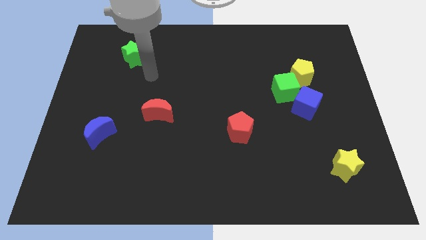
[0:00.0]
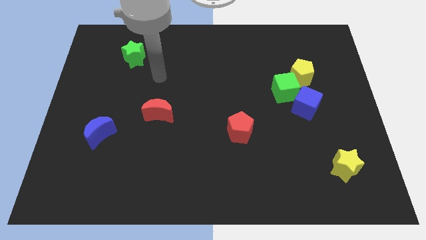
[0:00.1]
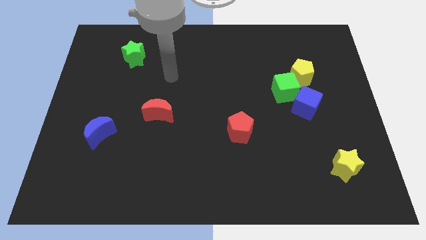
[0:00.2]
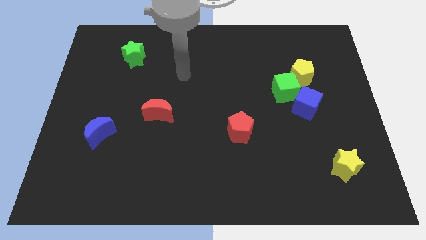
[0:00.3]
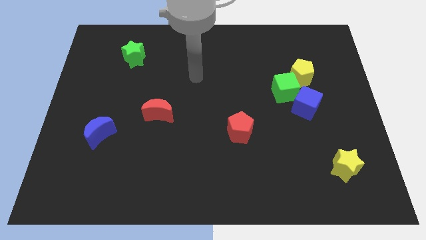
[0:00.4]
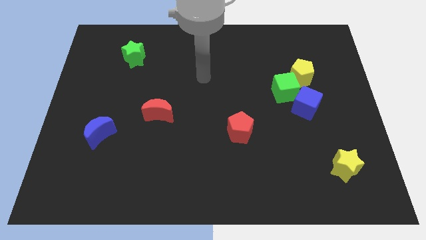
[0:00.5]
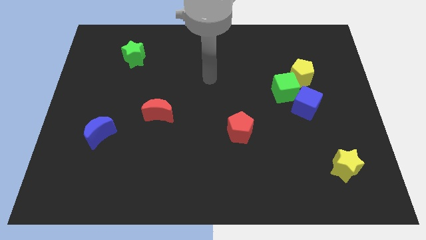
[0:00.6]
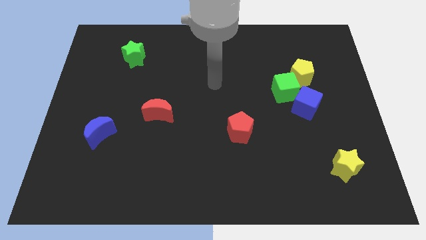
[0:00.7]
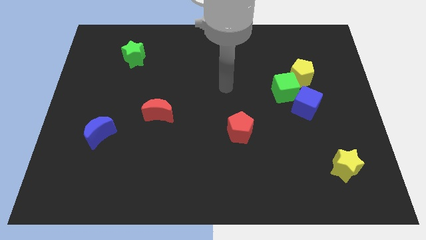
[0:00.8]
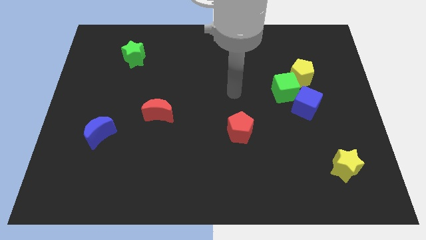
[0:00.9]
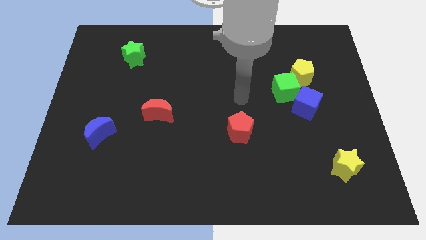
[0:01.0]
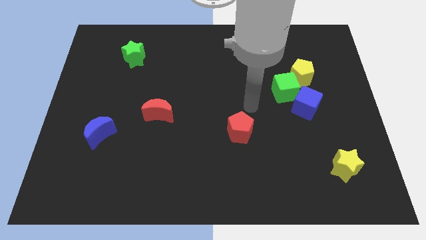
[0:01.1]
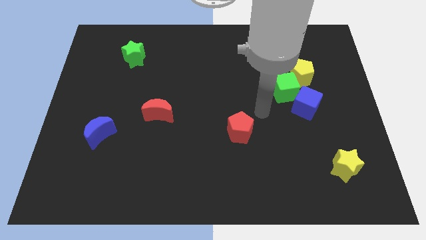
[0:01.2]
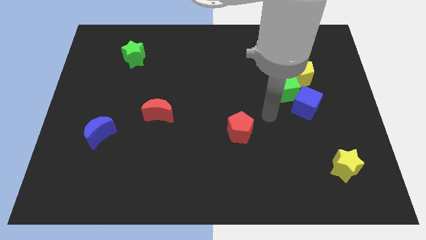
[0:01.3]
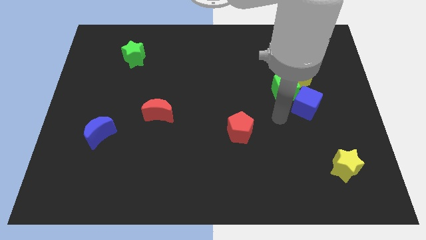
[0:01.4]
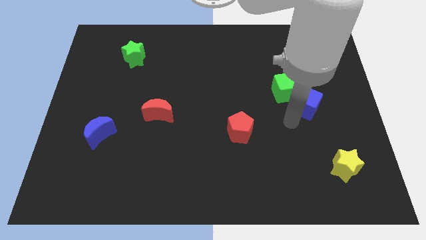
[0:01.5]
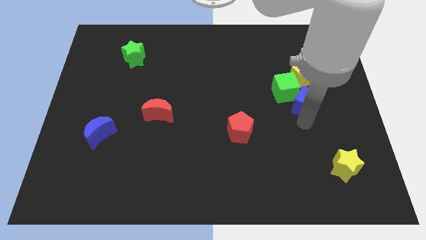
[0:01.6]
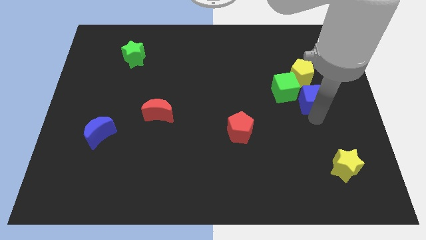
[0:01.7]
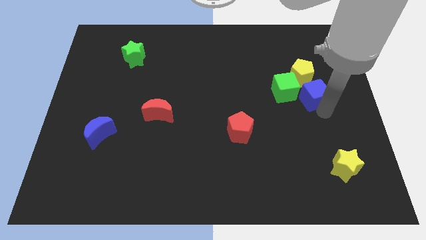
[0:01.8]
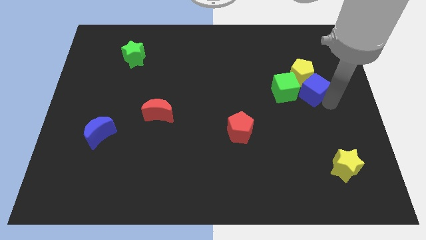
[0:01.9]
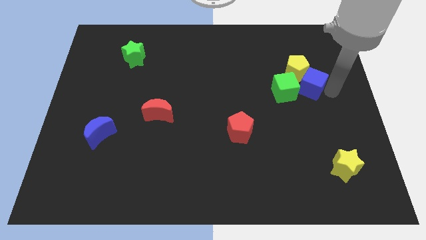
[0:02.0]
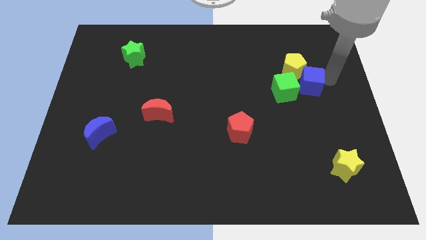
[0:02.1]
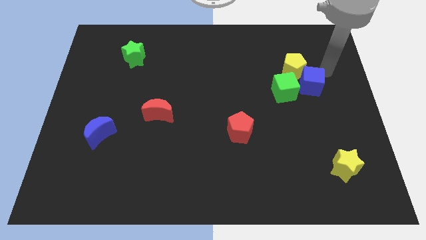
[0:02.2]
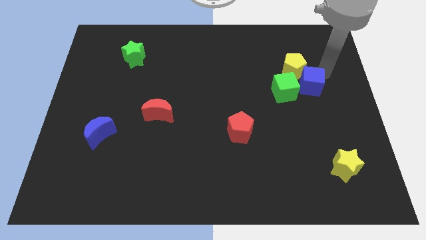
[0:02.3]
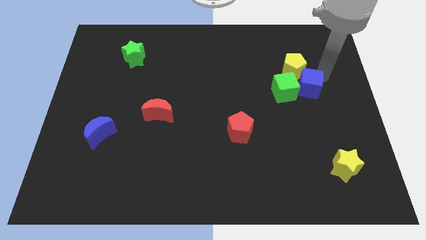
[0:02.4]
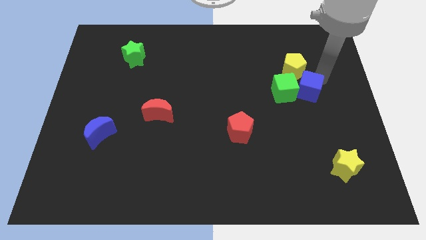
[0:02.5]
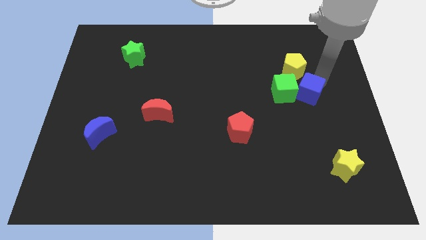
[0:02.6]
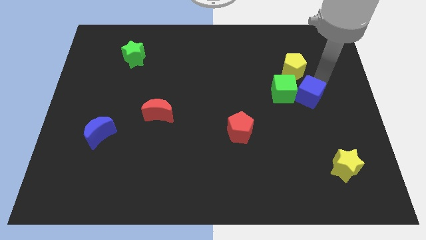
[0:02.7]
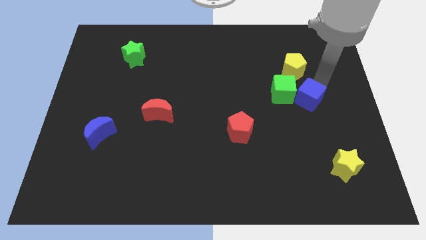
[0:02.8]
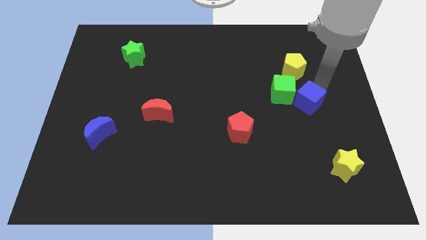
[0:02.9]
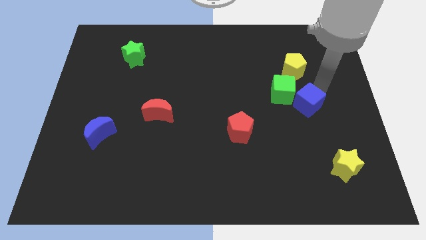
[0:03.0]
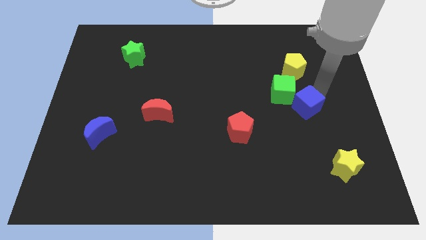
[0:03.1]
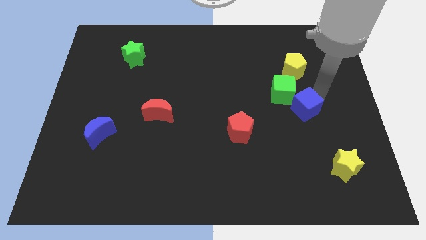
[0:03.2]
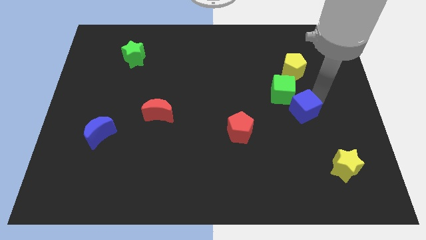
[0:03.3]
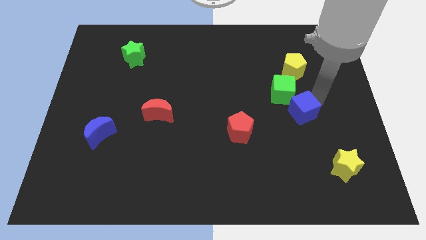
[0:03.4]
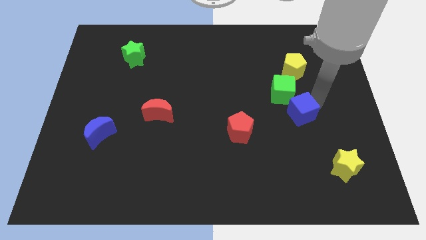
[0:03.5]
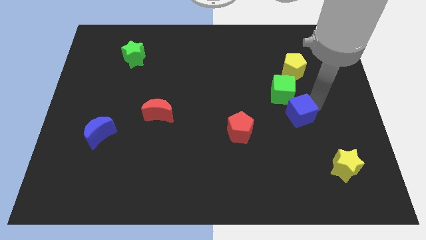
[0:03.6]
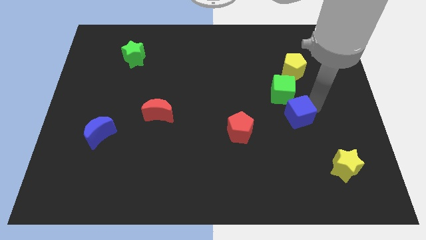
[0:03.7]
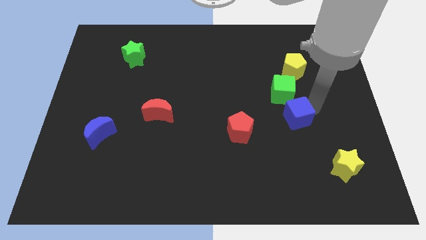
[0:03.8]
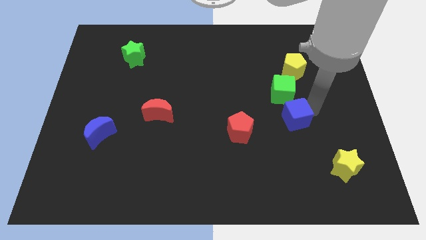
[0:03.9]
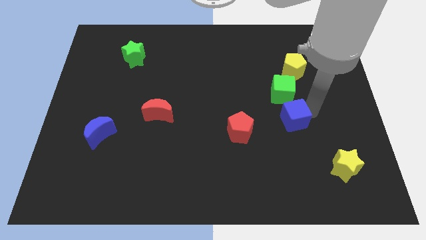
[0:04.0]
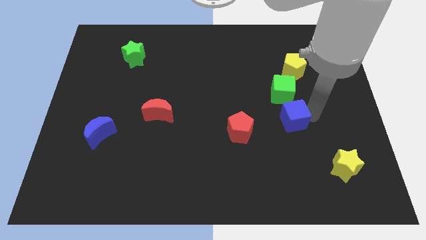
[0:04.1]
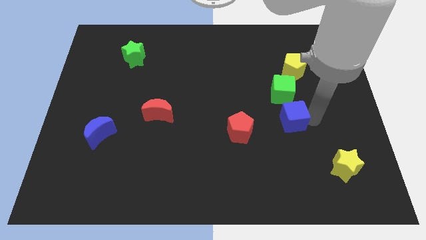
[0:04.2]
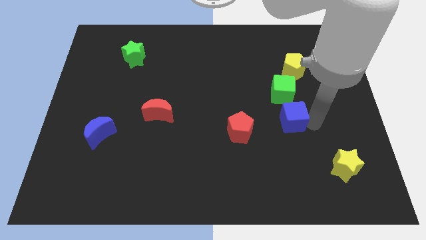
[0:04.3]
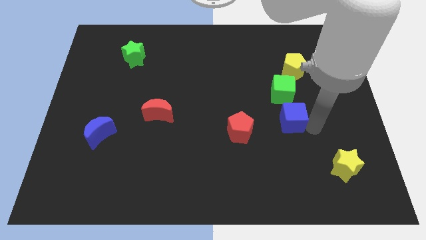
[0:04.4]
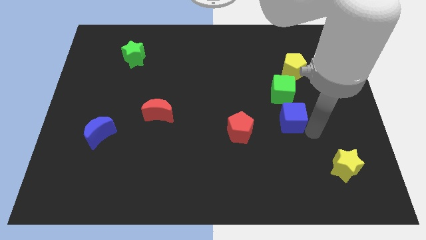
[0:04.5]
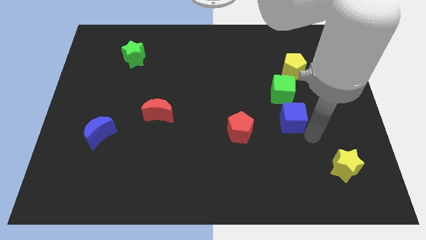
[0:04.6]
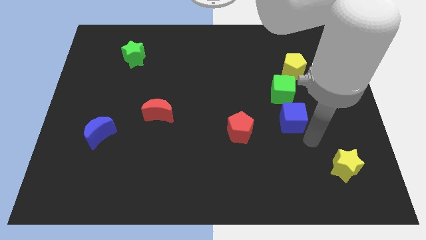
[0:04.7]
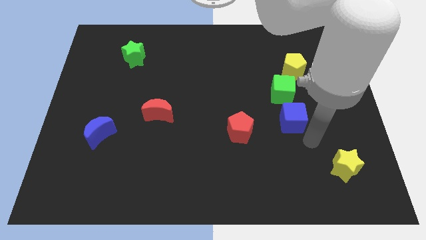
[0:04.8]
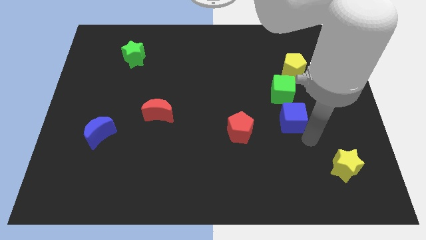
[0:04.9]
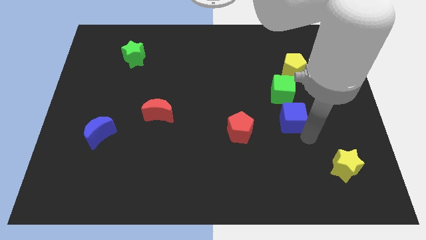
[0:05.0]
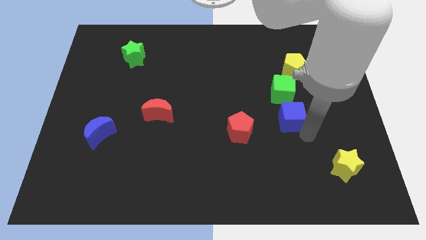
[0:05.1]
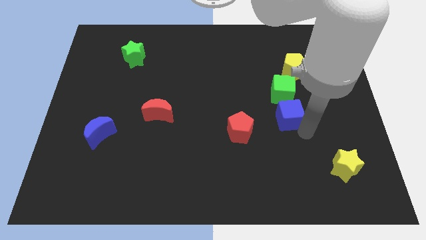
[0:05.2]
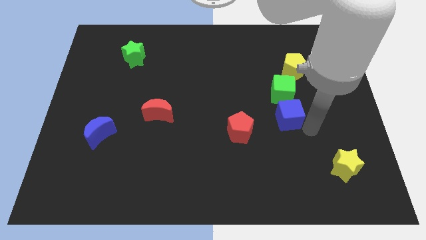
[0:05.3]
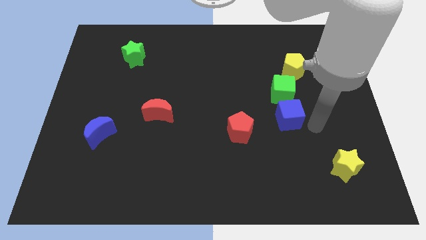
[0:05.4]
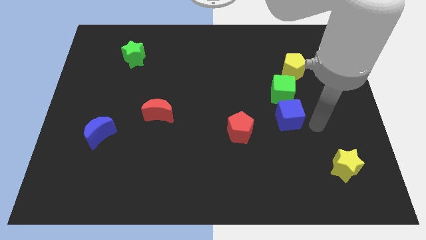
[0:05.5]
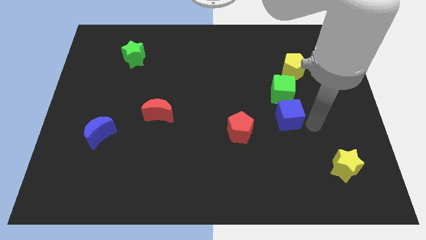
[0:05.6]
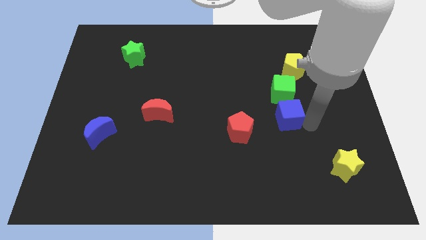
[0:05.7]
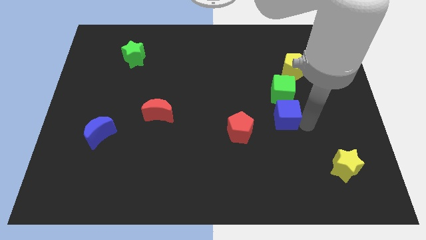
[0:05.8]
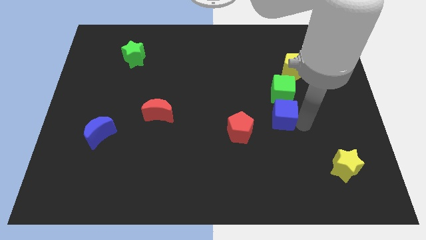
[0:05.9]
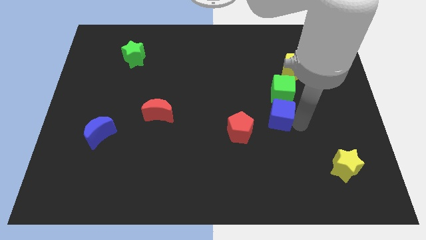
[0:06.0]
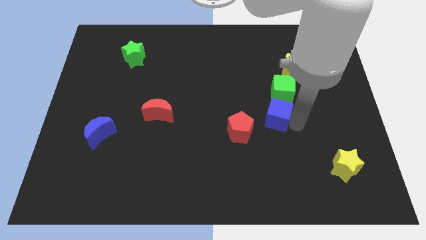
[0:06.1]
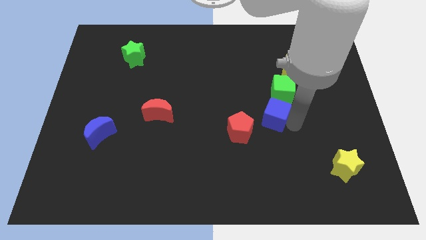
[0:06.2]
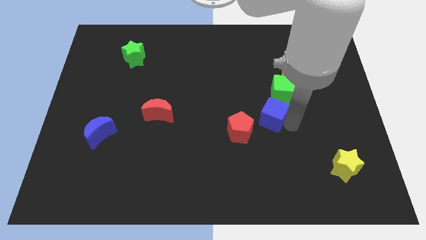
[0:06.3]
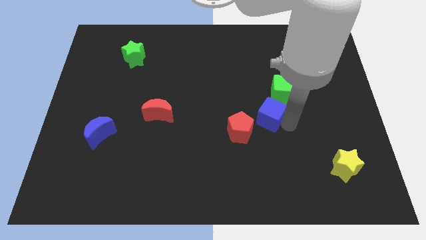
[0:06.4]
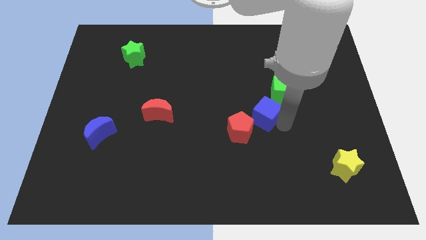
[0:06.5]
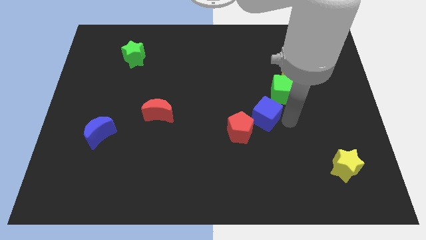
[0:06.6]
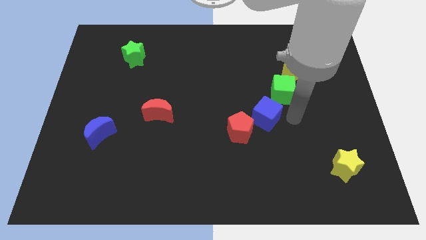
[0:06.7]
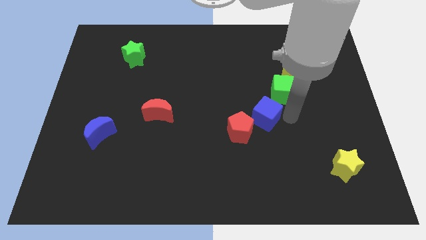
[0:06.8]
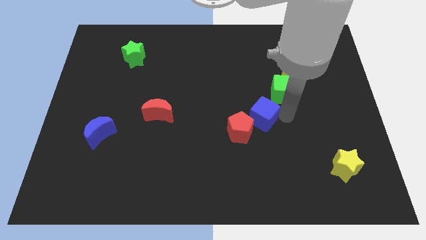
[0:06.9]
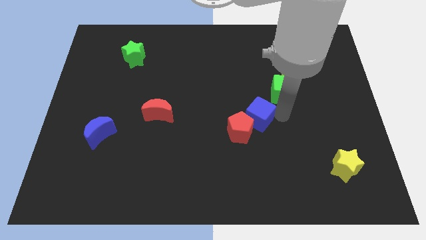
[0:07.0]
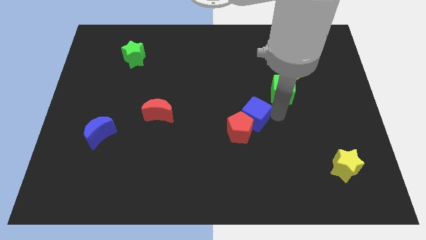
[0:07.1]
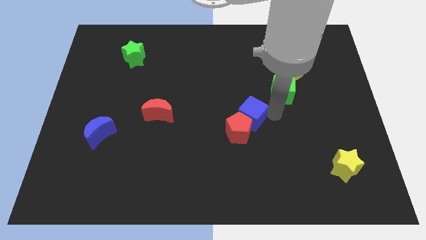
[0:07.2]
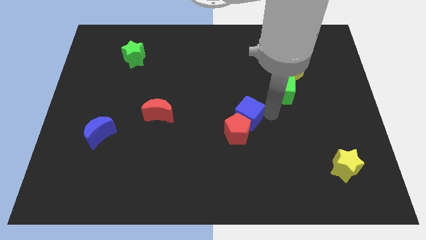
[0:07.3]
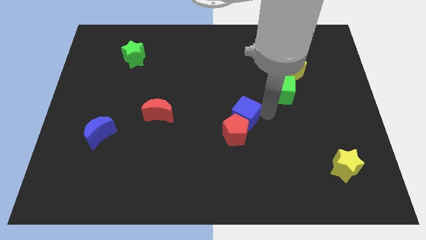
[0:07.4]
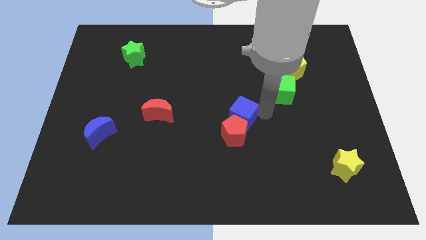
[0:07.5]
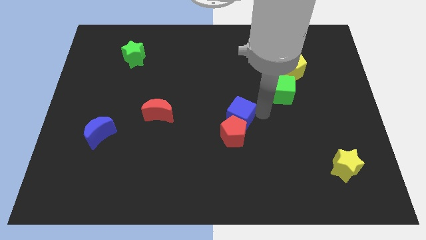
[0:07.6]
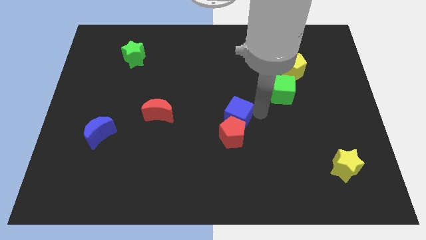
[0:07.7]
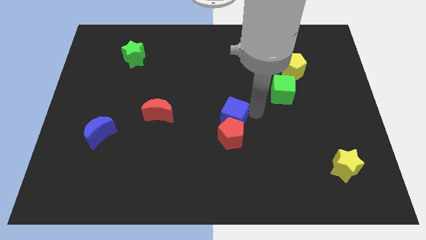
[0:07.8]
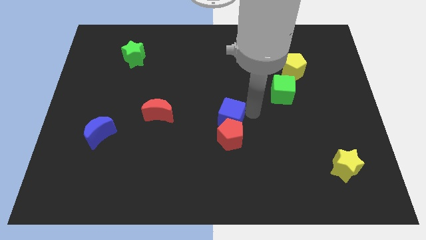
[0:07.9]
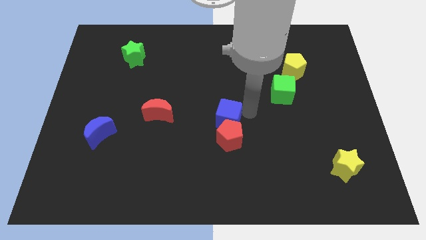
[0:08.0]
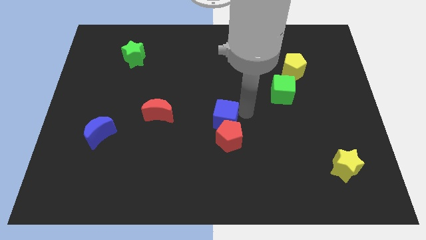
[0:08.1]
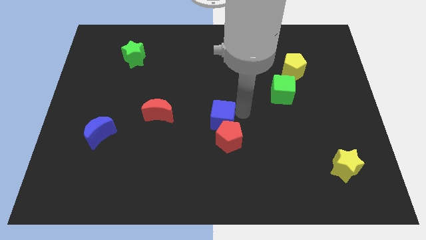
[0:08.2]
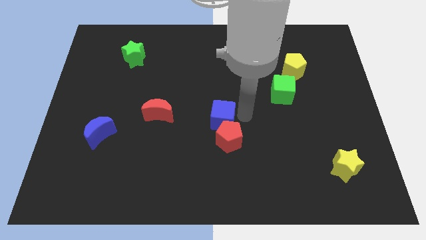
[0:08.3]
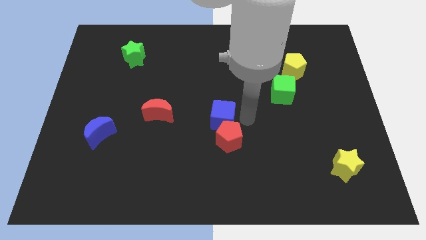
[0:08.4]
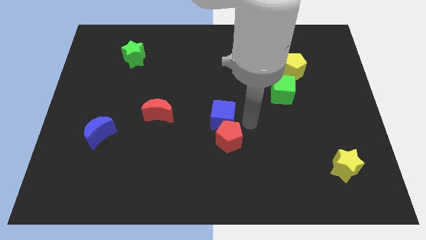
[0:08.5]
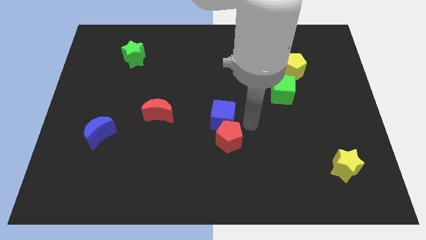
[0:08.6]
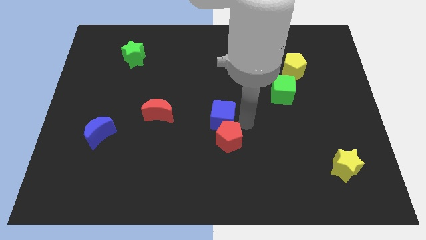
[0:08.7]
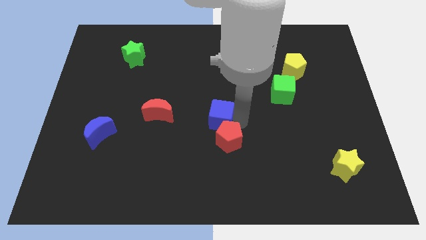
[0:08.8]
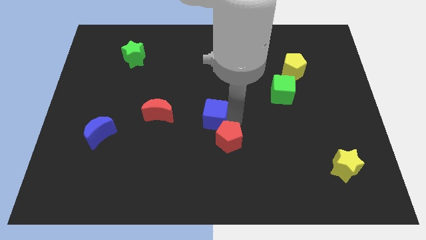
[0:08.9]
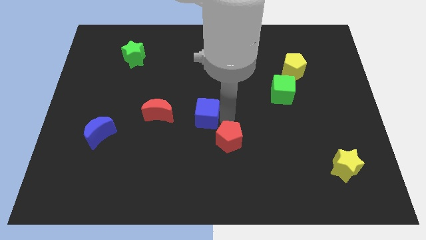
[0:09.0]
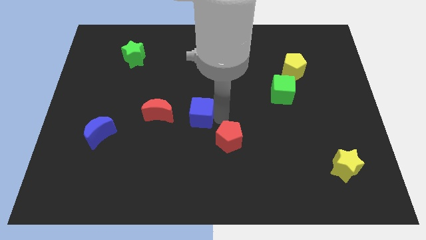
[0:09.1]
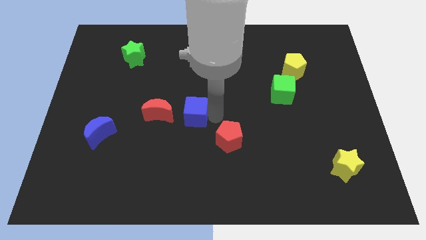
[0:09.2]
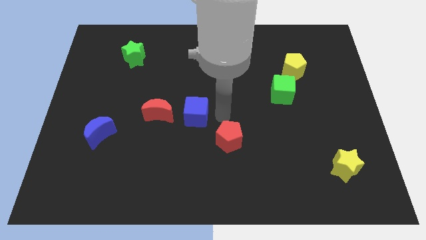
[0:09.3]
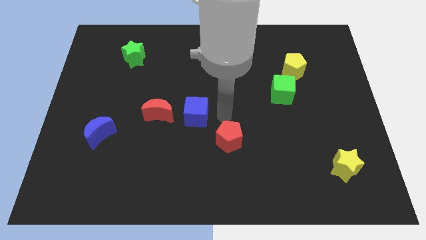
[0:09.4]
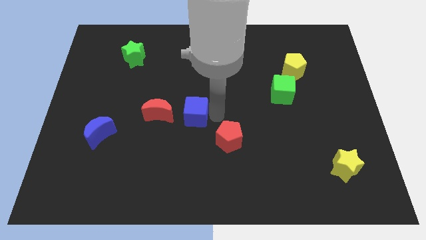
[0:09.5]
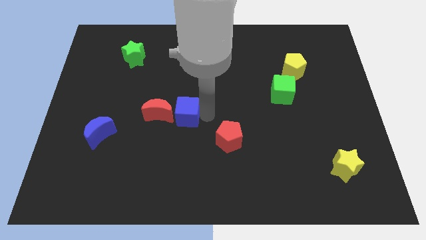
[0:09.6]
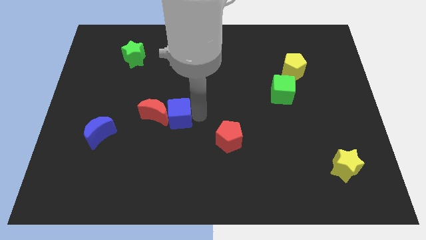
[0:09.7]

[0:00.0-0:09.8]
move the blue cube close to the red moon
